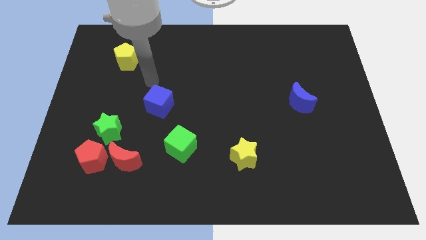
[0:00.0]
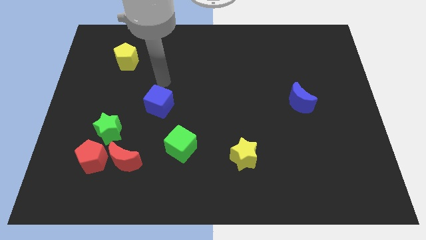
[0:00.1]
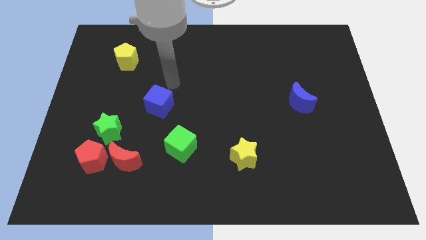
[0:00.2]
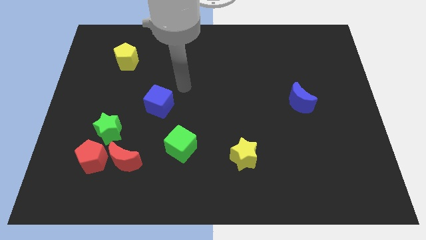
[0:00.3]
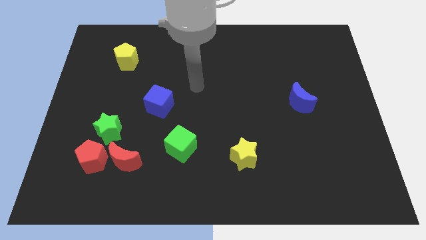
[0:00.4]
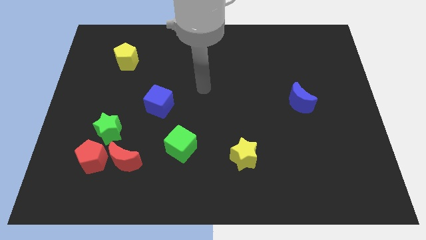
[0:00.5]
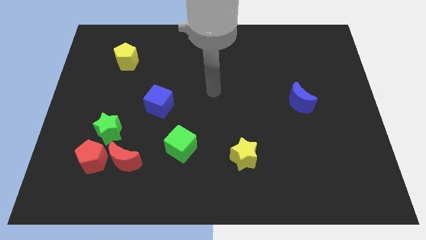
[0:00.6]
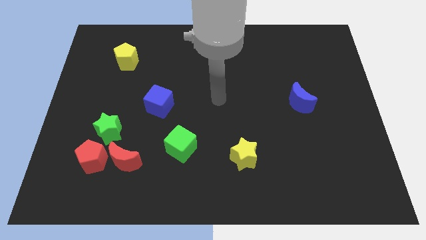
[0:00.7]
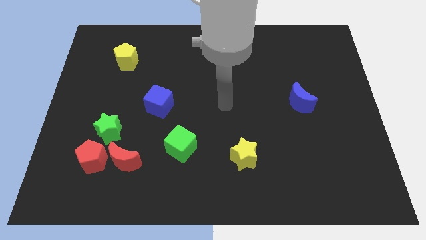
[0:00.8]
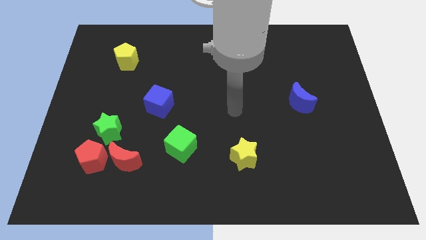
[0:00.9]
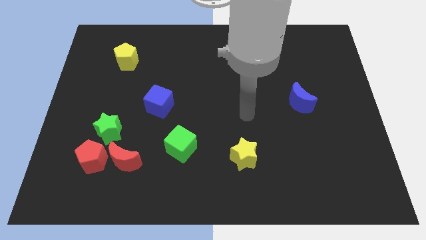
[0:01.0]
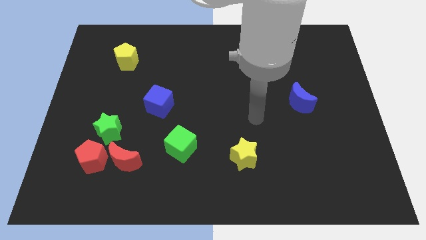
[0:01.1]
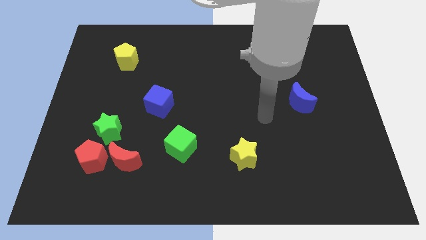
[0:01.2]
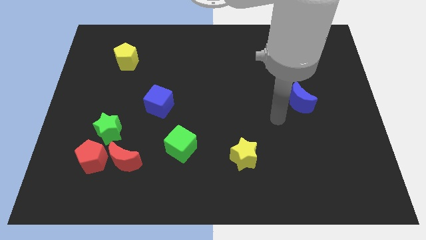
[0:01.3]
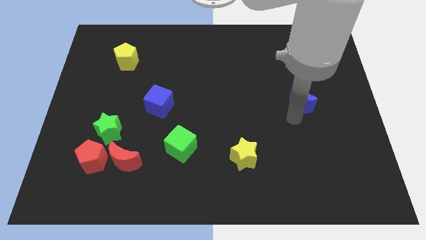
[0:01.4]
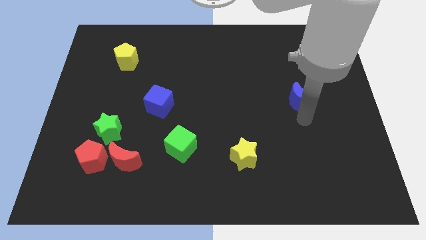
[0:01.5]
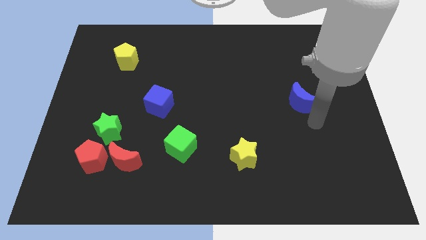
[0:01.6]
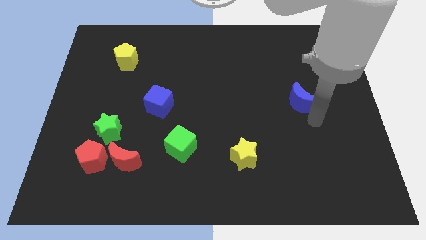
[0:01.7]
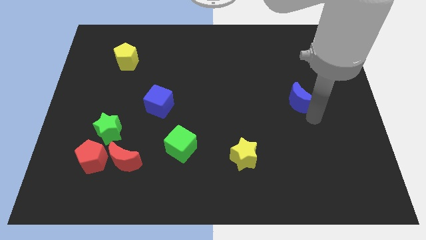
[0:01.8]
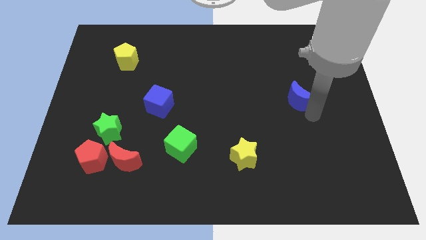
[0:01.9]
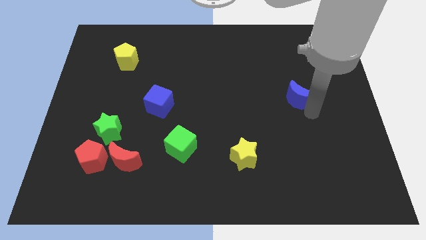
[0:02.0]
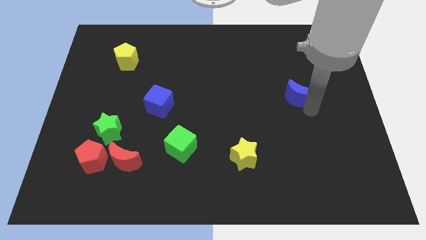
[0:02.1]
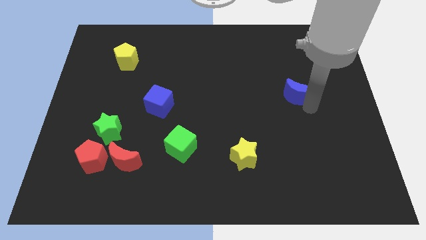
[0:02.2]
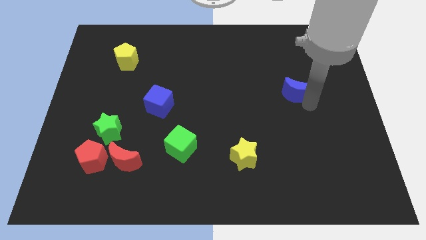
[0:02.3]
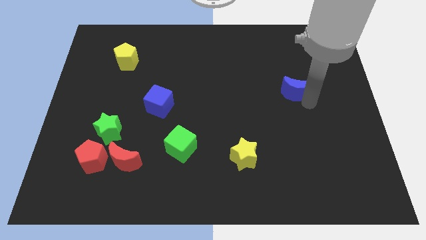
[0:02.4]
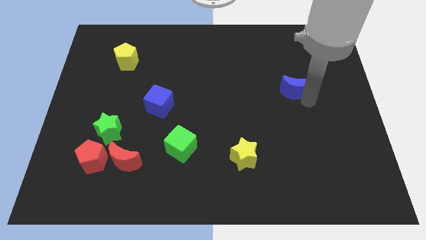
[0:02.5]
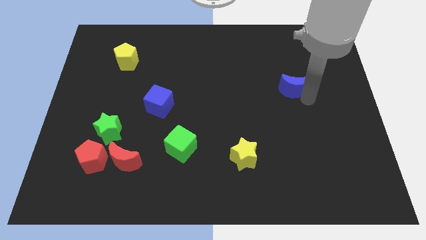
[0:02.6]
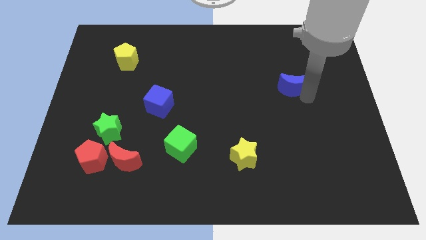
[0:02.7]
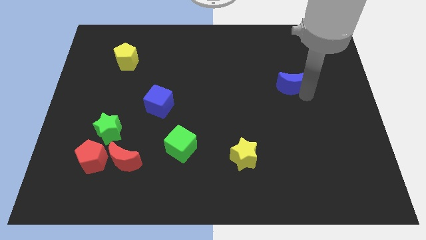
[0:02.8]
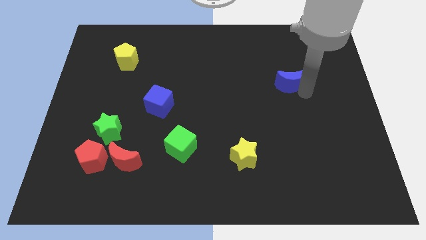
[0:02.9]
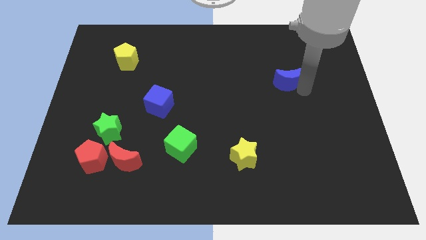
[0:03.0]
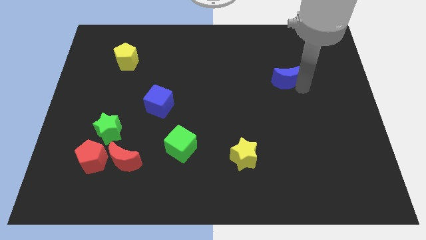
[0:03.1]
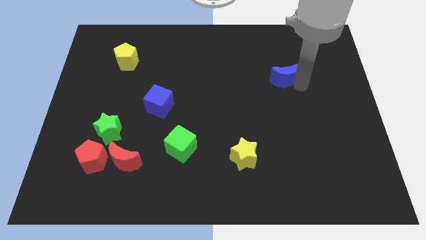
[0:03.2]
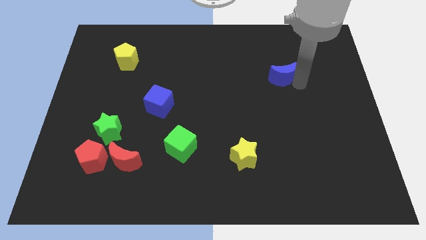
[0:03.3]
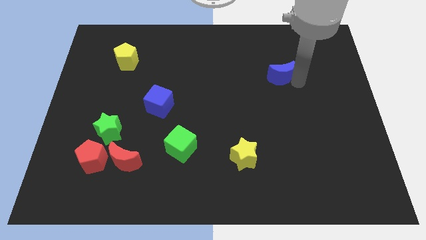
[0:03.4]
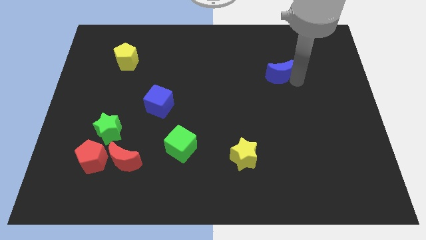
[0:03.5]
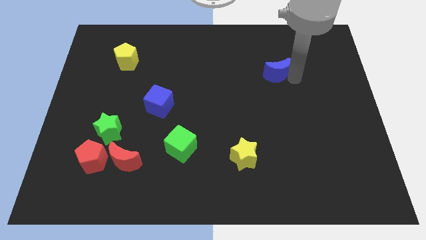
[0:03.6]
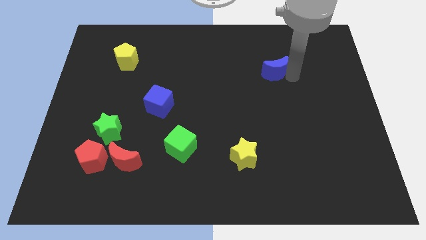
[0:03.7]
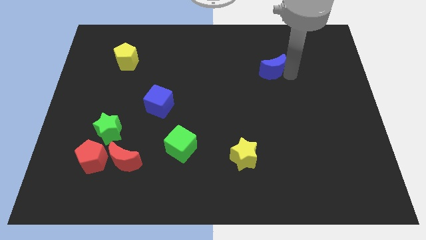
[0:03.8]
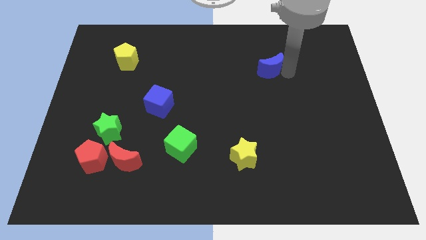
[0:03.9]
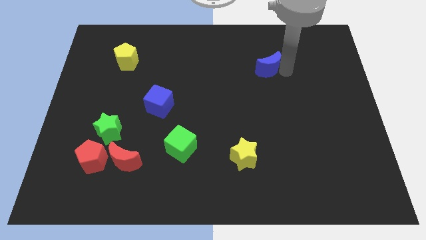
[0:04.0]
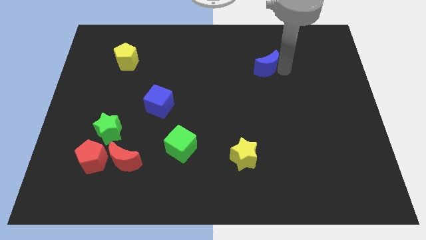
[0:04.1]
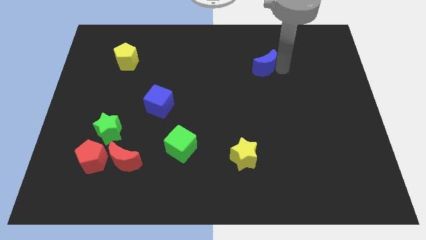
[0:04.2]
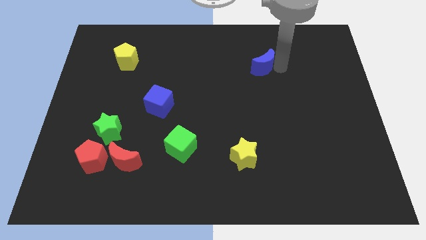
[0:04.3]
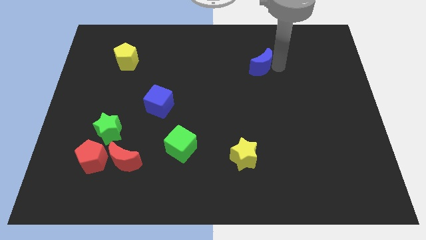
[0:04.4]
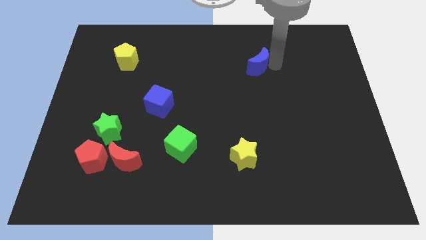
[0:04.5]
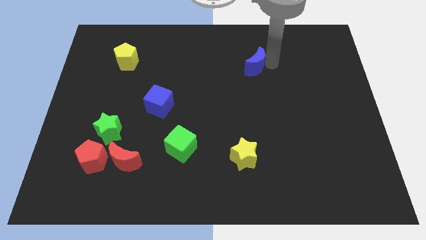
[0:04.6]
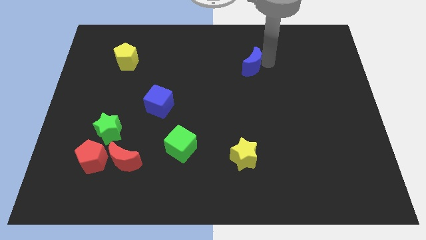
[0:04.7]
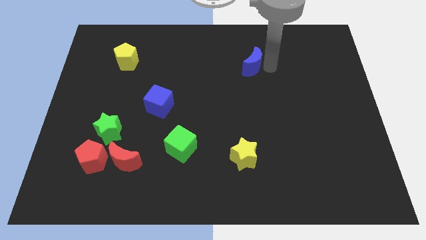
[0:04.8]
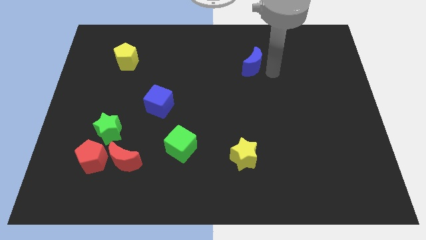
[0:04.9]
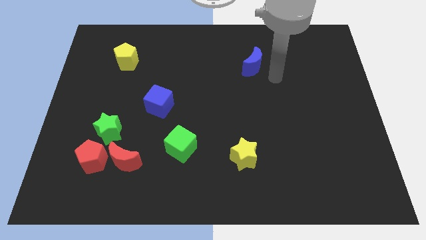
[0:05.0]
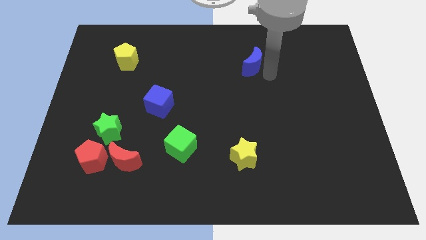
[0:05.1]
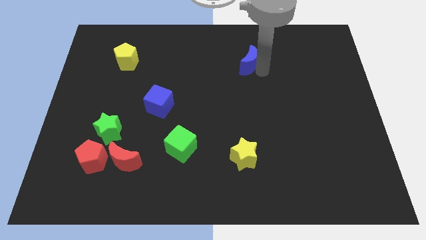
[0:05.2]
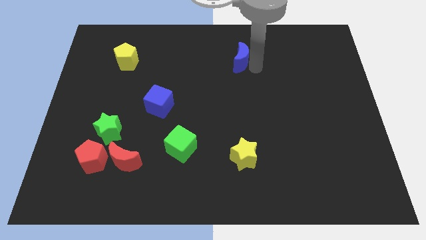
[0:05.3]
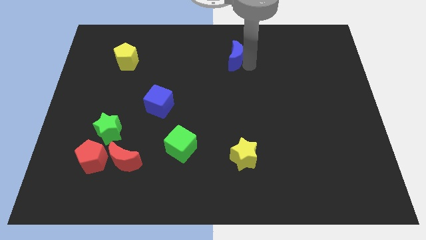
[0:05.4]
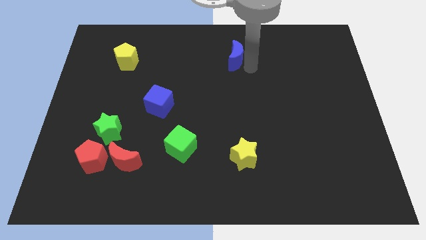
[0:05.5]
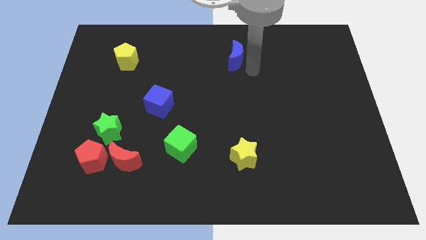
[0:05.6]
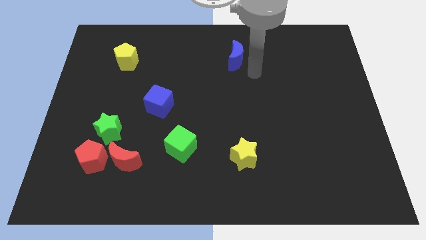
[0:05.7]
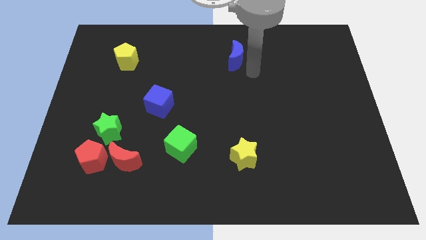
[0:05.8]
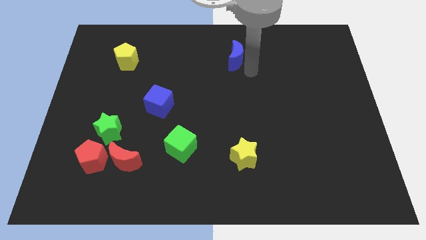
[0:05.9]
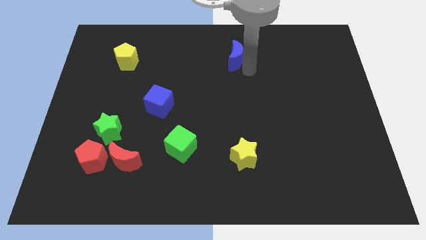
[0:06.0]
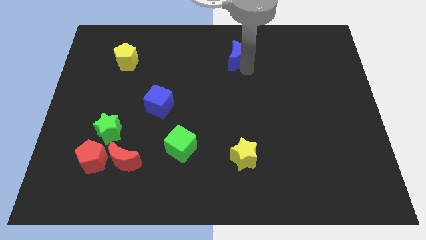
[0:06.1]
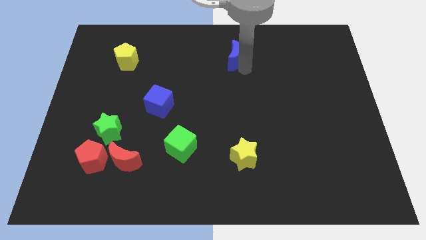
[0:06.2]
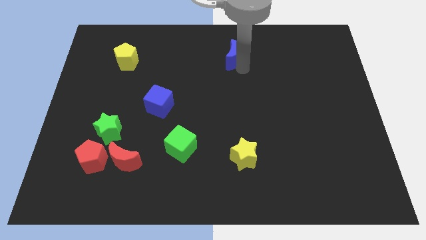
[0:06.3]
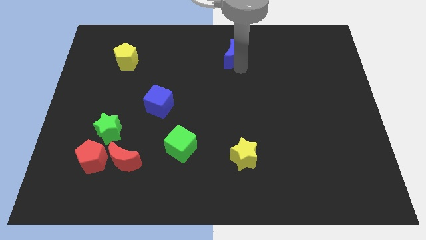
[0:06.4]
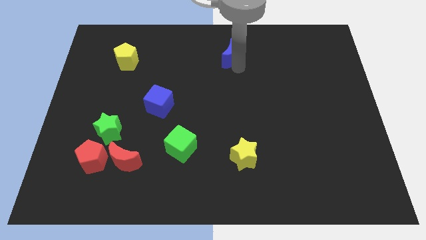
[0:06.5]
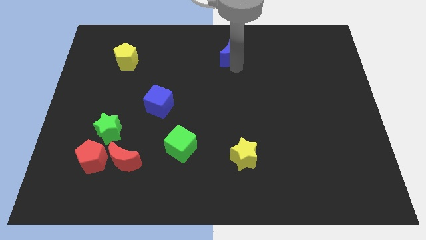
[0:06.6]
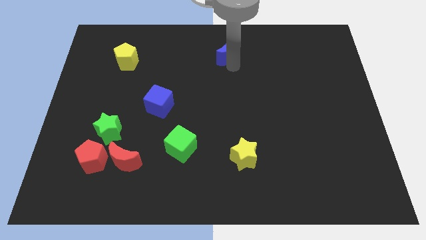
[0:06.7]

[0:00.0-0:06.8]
move the blue moon to the towards your base
